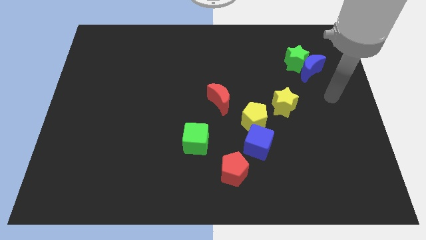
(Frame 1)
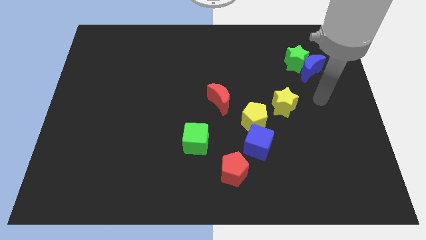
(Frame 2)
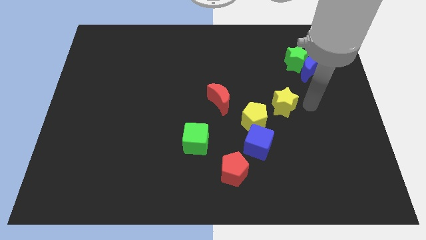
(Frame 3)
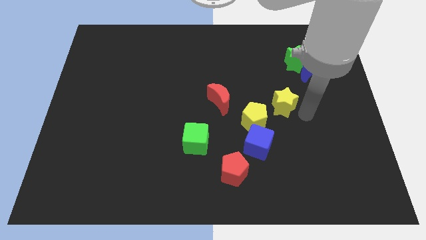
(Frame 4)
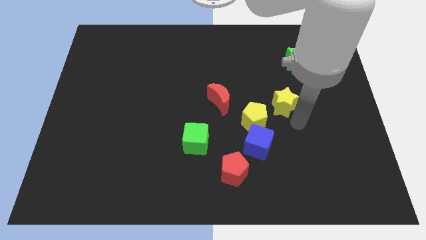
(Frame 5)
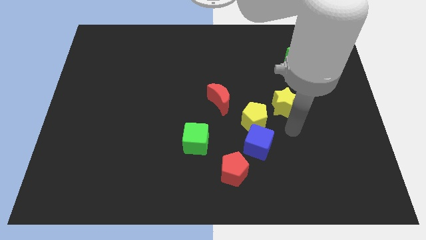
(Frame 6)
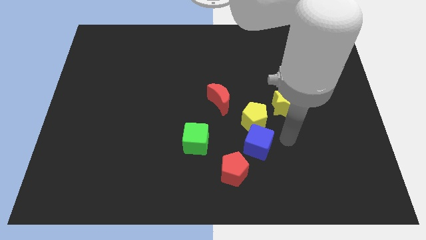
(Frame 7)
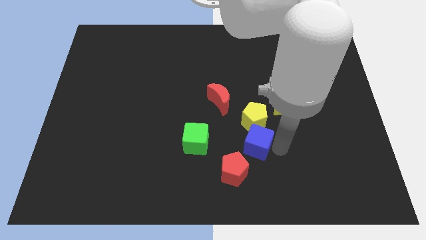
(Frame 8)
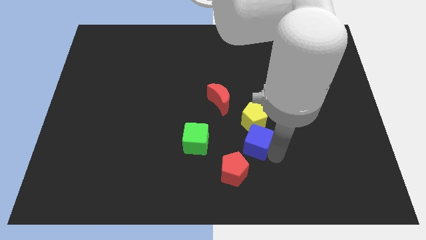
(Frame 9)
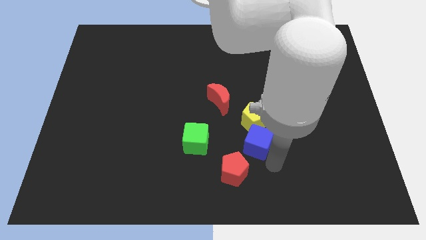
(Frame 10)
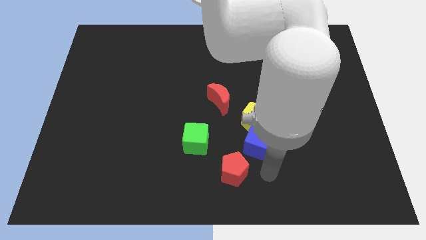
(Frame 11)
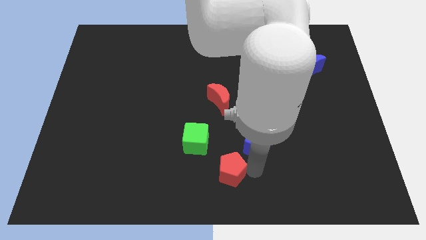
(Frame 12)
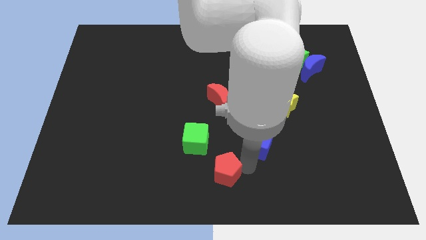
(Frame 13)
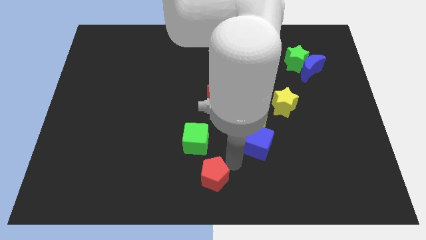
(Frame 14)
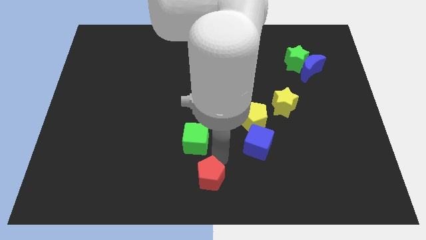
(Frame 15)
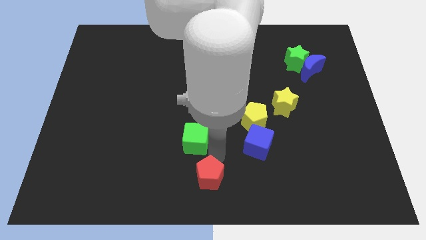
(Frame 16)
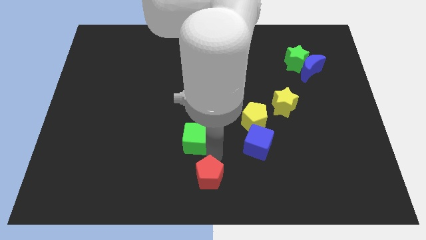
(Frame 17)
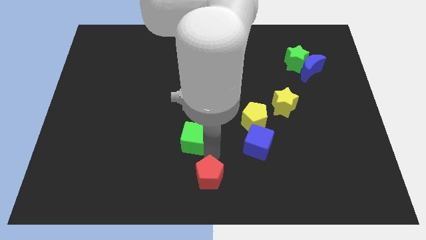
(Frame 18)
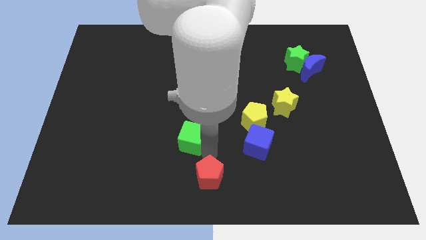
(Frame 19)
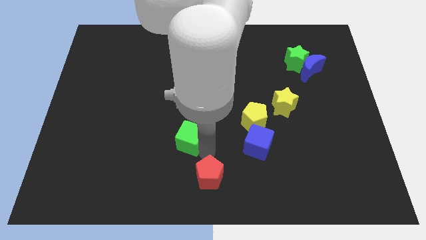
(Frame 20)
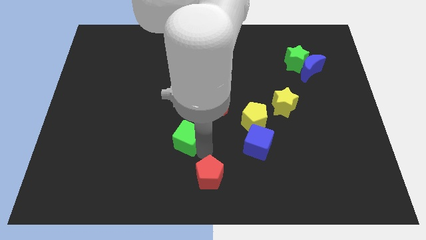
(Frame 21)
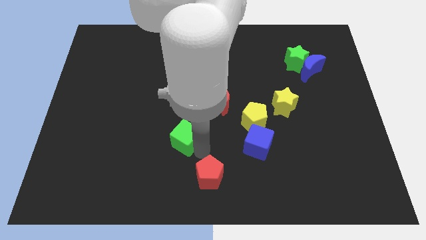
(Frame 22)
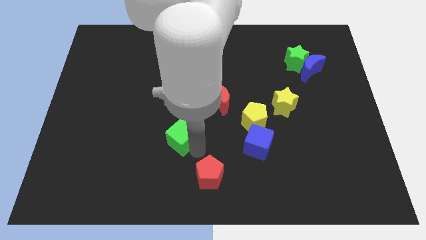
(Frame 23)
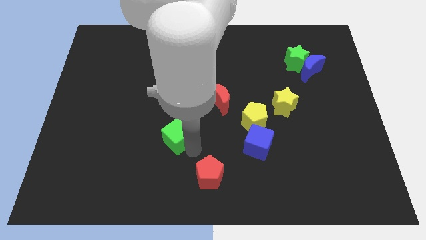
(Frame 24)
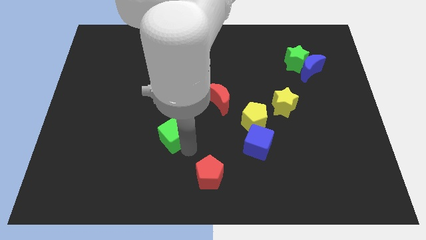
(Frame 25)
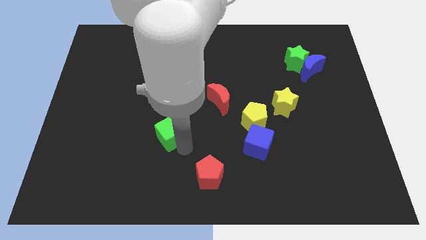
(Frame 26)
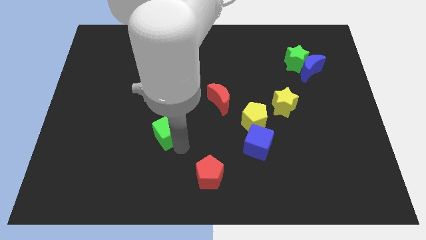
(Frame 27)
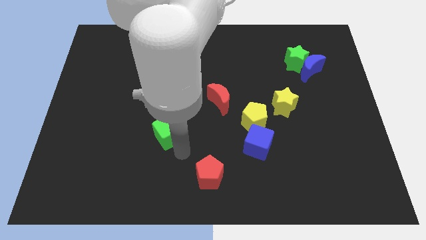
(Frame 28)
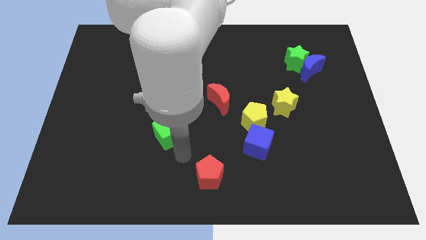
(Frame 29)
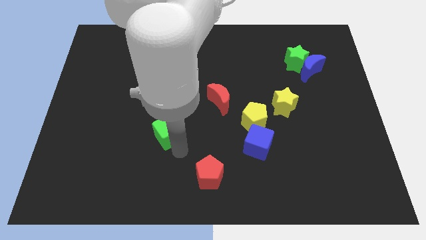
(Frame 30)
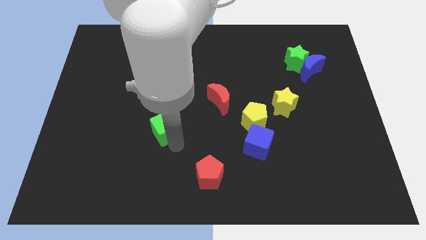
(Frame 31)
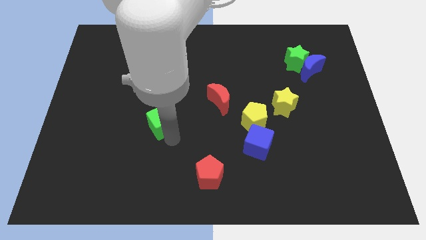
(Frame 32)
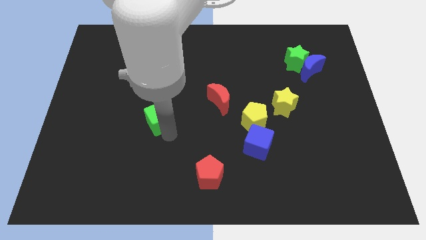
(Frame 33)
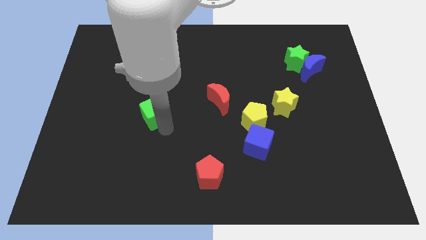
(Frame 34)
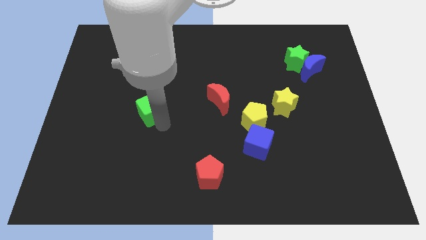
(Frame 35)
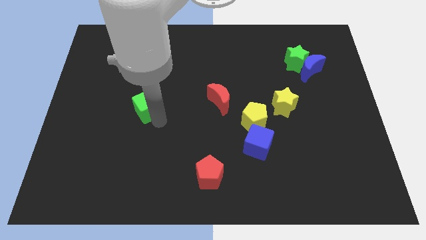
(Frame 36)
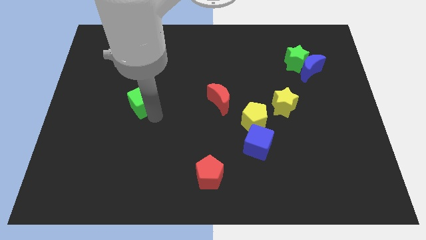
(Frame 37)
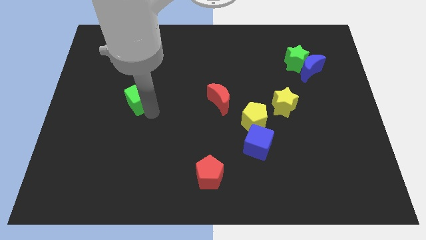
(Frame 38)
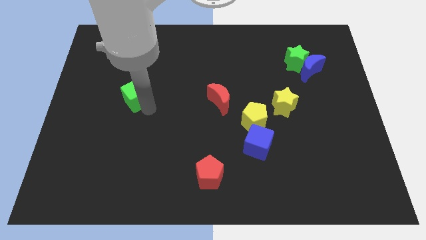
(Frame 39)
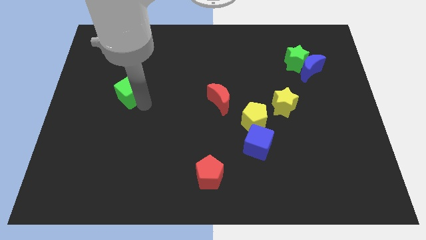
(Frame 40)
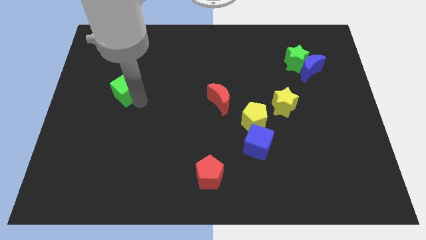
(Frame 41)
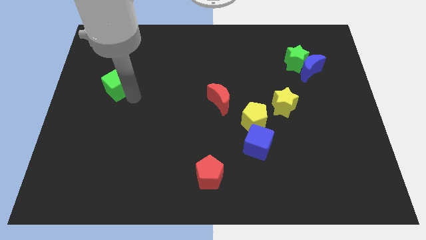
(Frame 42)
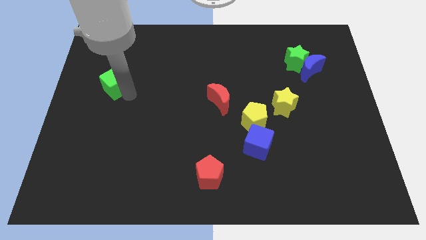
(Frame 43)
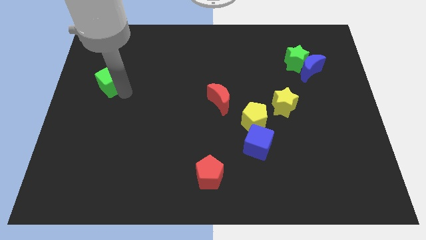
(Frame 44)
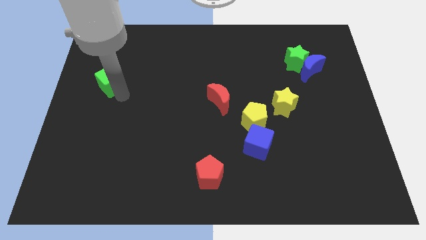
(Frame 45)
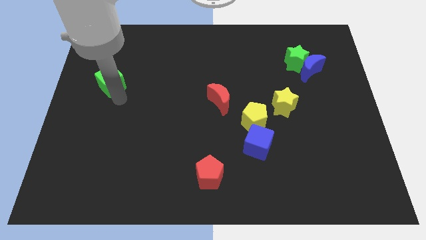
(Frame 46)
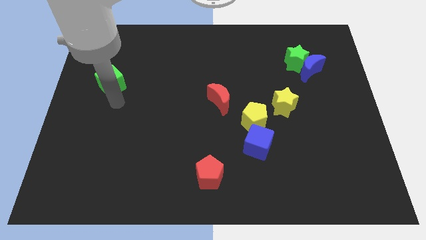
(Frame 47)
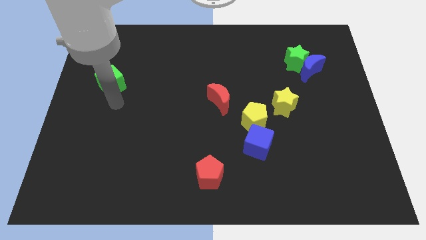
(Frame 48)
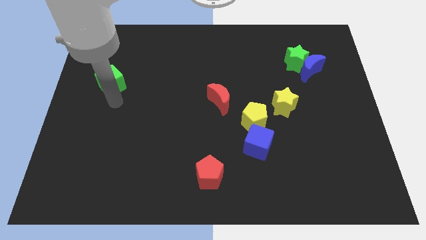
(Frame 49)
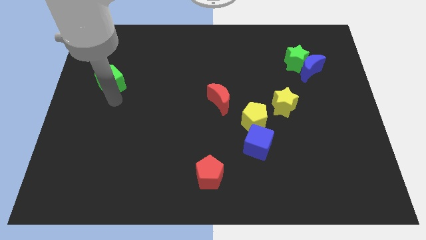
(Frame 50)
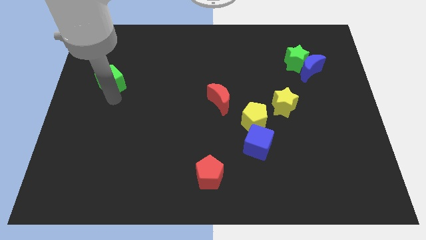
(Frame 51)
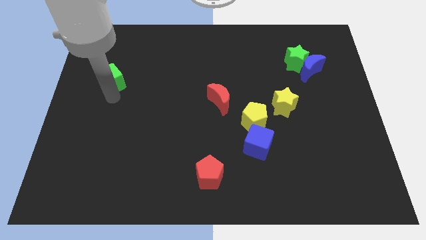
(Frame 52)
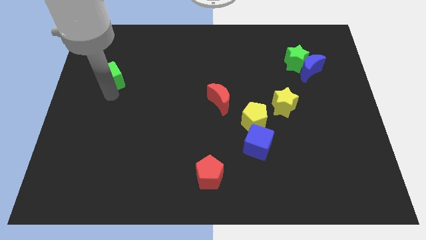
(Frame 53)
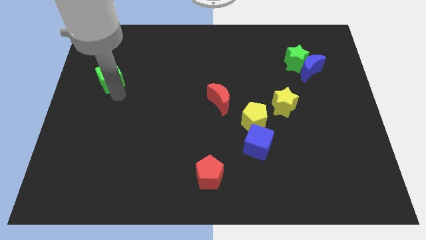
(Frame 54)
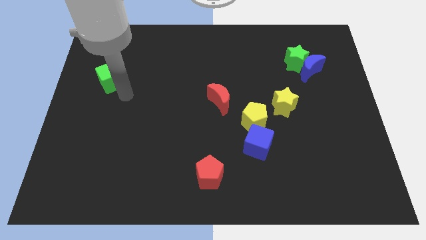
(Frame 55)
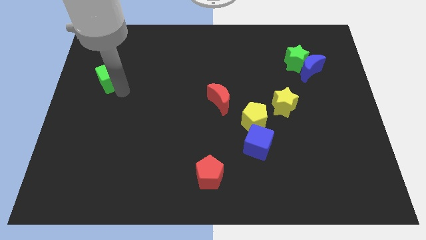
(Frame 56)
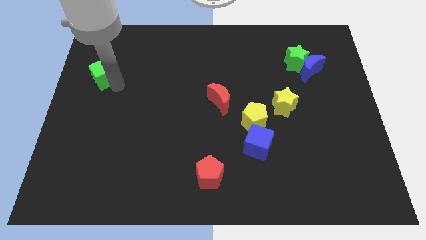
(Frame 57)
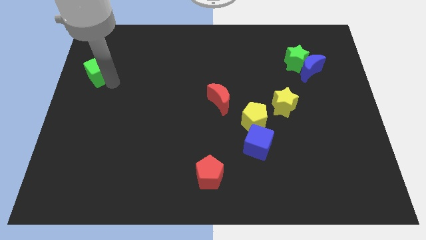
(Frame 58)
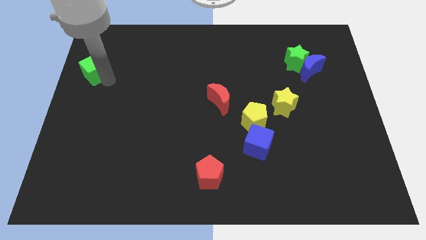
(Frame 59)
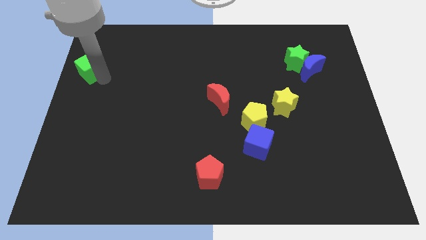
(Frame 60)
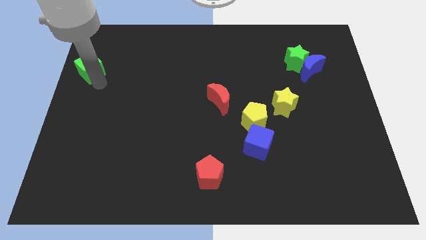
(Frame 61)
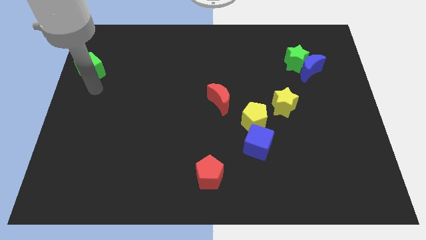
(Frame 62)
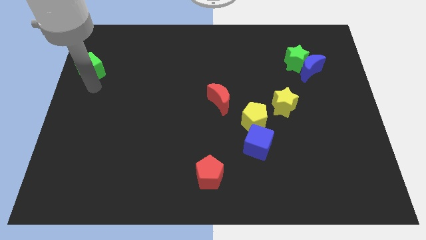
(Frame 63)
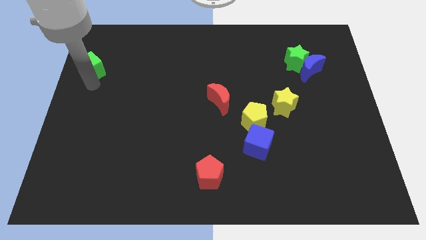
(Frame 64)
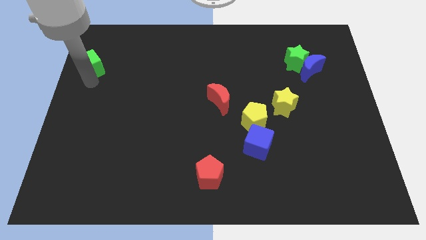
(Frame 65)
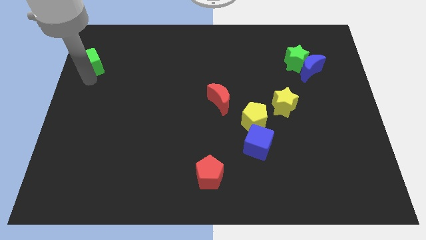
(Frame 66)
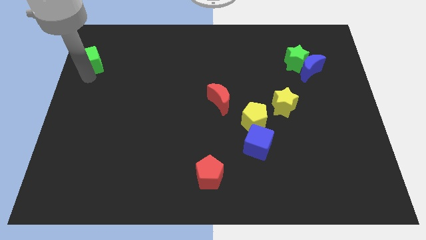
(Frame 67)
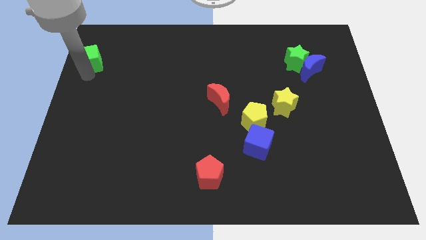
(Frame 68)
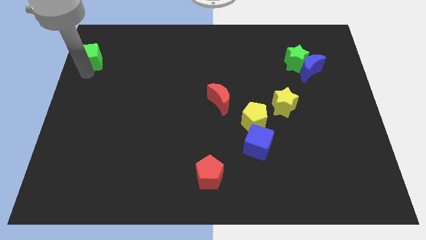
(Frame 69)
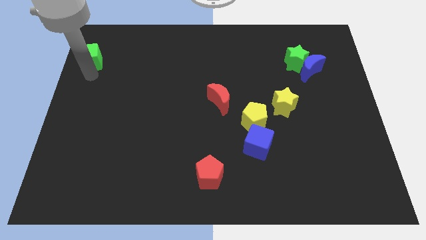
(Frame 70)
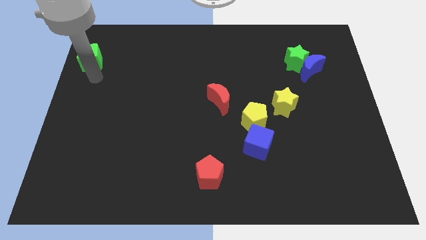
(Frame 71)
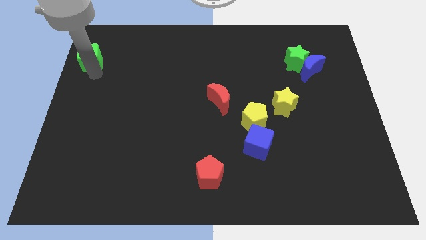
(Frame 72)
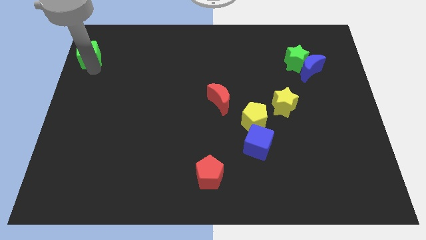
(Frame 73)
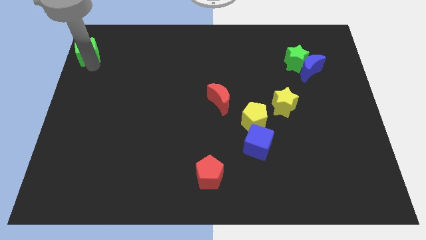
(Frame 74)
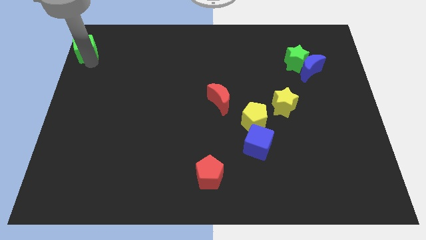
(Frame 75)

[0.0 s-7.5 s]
push the green cube to the upper left corner
